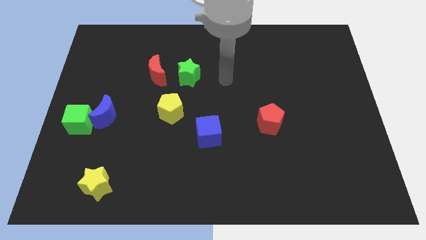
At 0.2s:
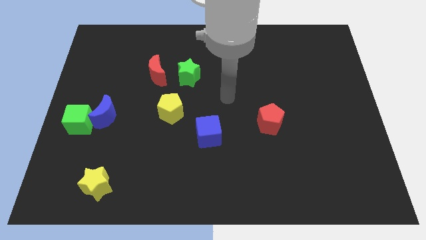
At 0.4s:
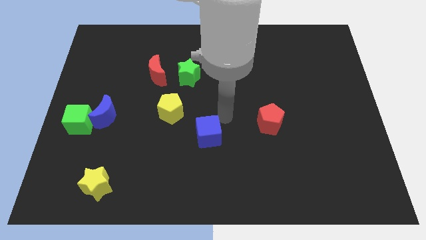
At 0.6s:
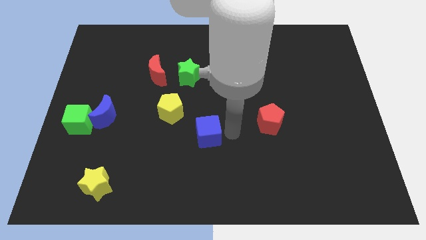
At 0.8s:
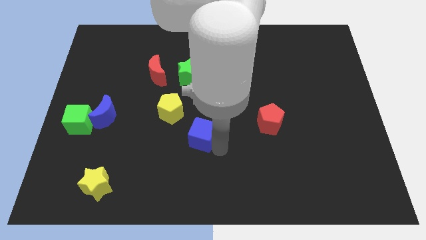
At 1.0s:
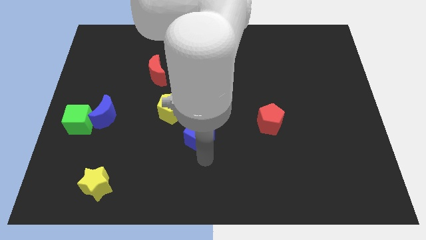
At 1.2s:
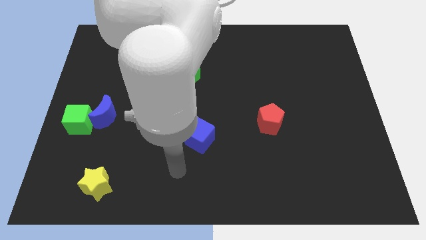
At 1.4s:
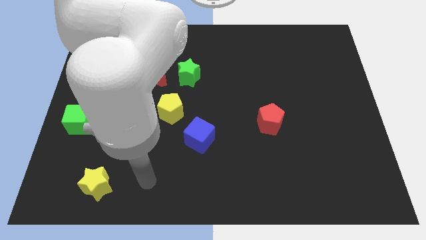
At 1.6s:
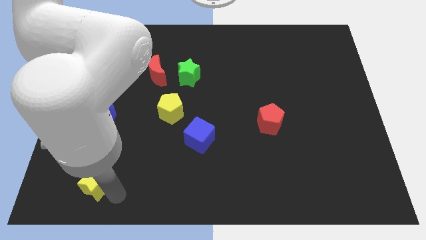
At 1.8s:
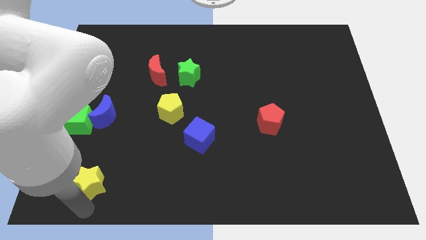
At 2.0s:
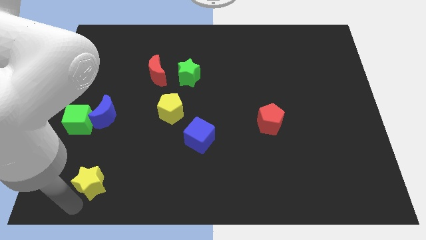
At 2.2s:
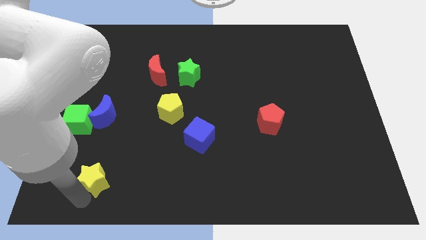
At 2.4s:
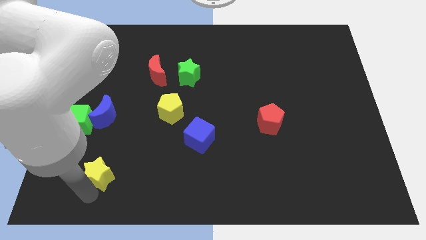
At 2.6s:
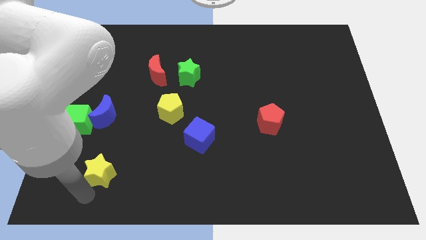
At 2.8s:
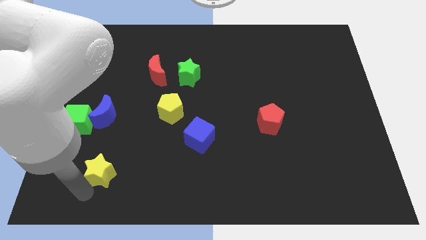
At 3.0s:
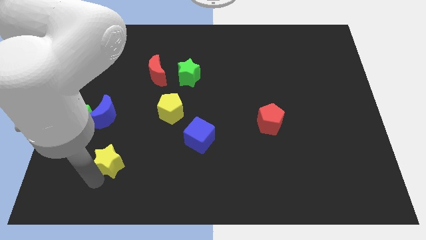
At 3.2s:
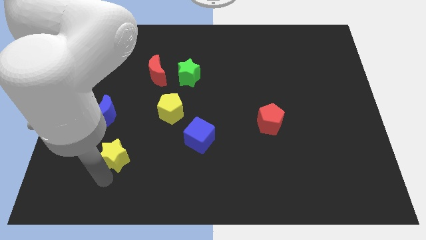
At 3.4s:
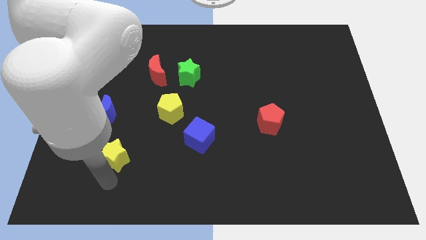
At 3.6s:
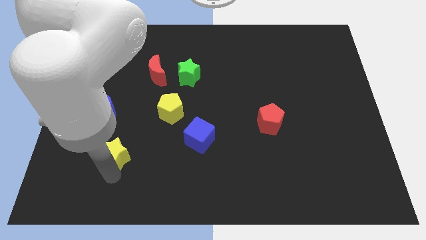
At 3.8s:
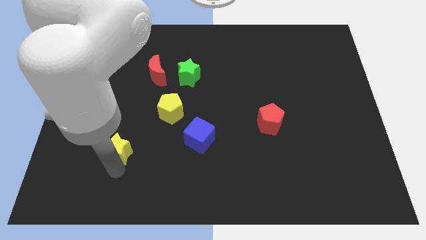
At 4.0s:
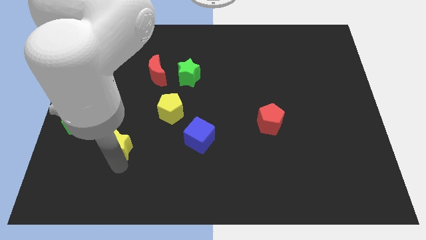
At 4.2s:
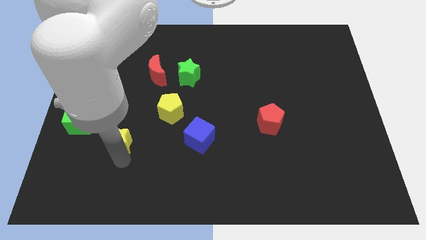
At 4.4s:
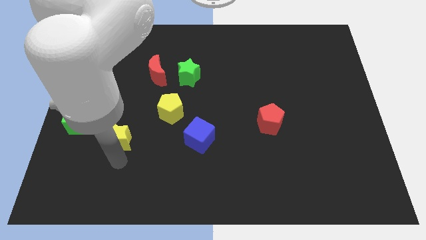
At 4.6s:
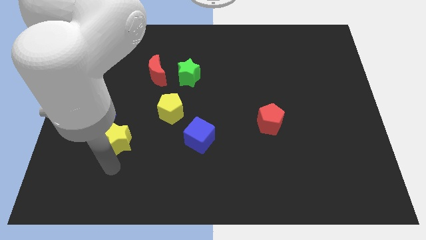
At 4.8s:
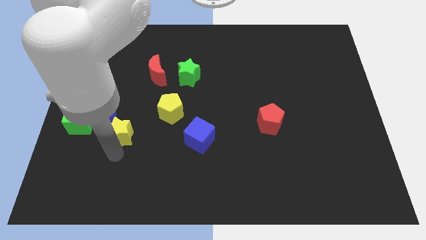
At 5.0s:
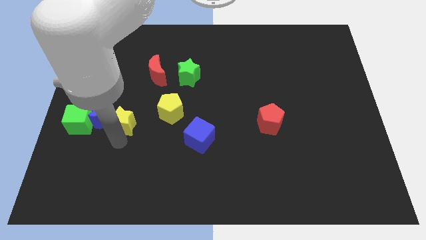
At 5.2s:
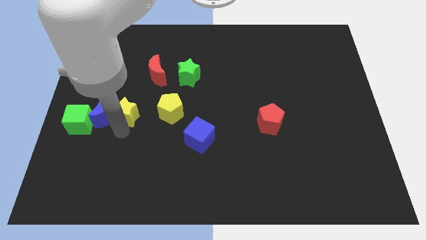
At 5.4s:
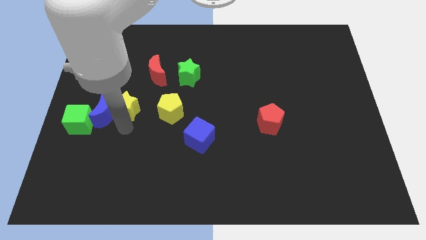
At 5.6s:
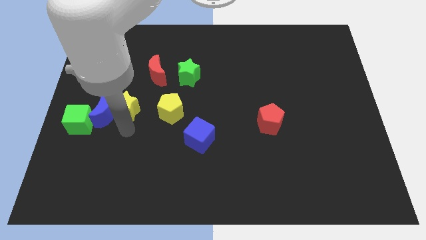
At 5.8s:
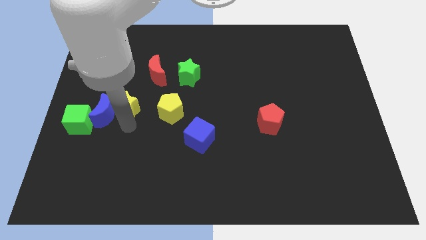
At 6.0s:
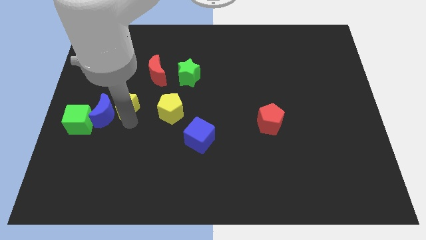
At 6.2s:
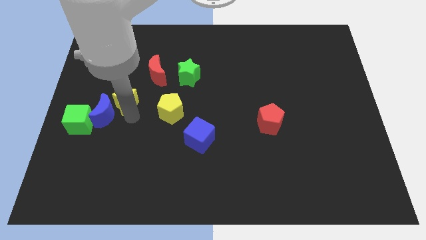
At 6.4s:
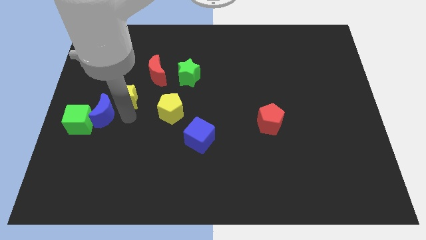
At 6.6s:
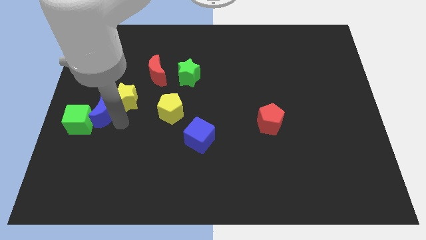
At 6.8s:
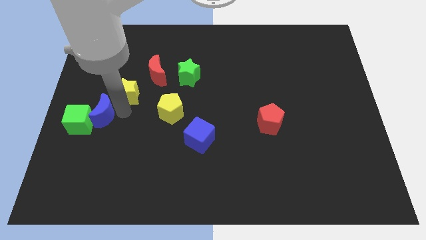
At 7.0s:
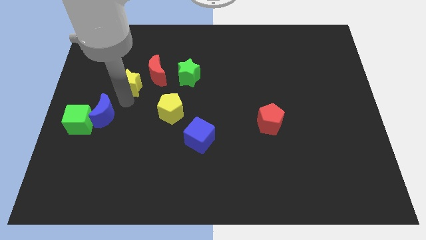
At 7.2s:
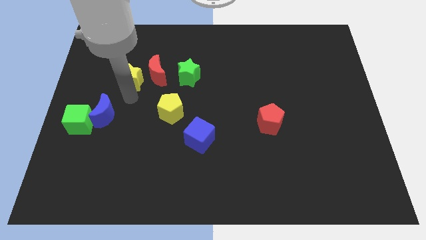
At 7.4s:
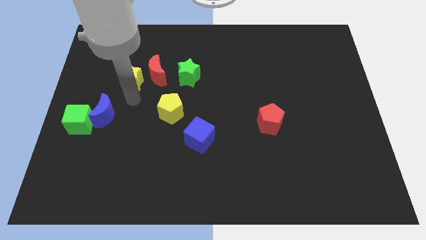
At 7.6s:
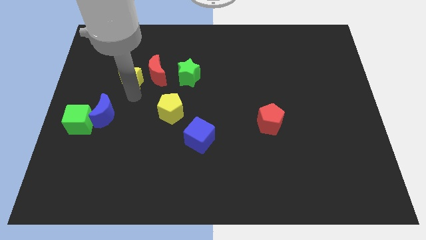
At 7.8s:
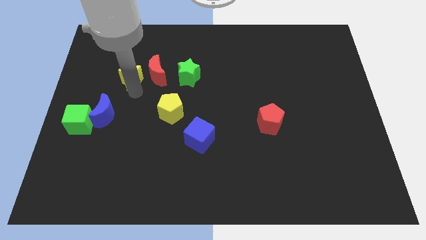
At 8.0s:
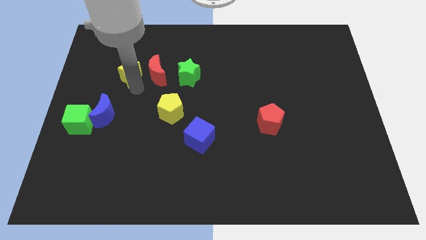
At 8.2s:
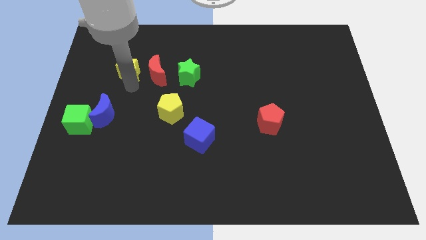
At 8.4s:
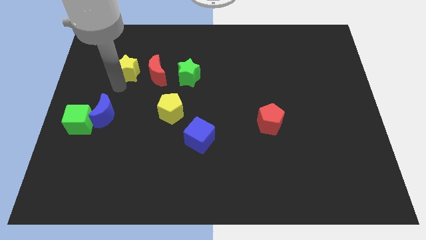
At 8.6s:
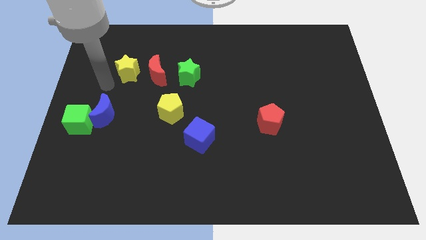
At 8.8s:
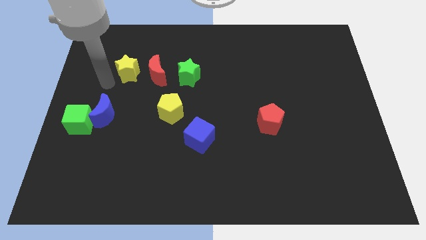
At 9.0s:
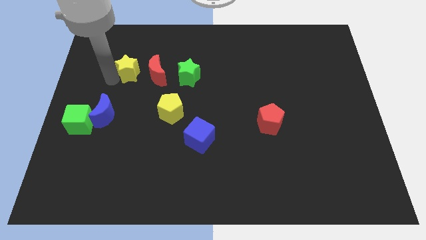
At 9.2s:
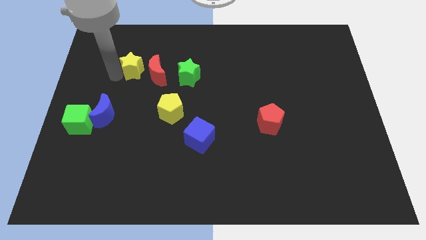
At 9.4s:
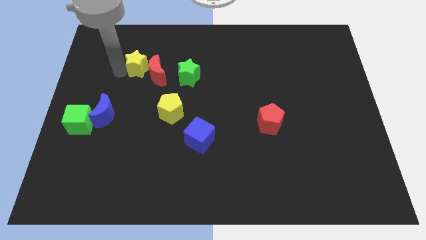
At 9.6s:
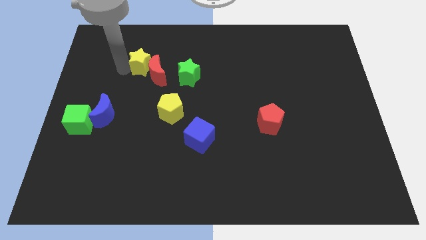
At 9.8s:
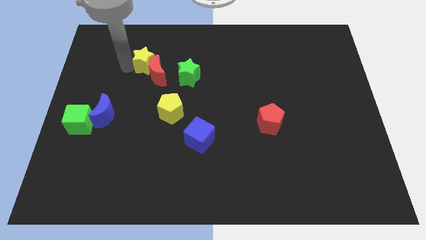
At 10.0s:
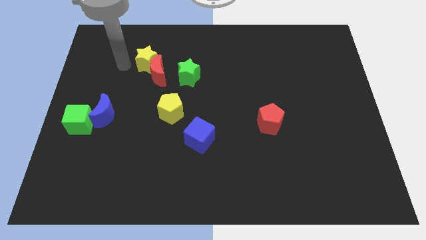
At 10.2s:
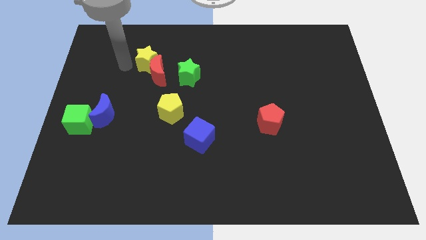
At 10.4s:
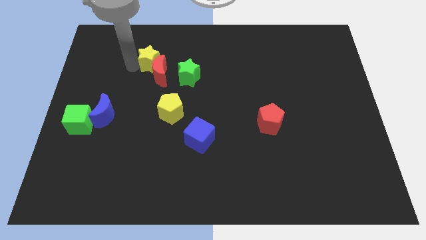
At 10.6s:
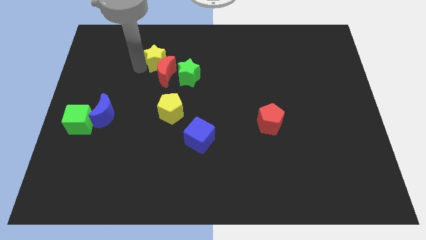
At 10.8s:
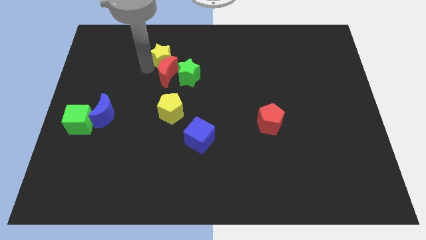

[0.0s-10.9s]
push the yellow star to the top right of the red moon
